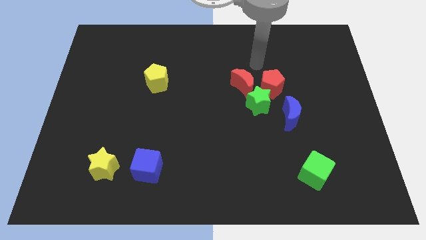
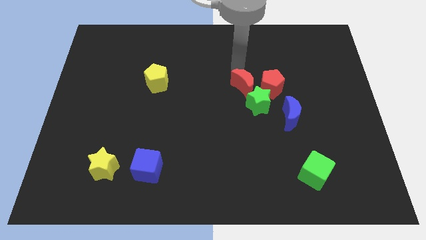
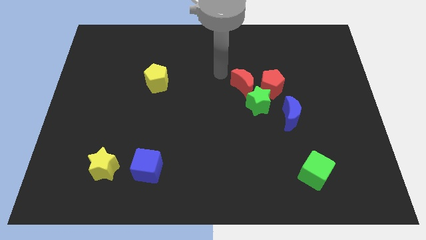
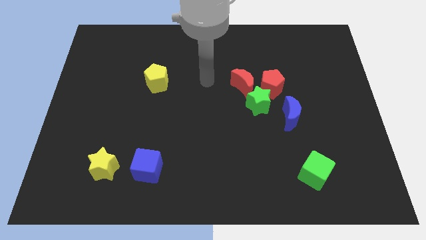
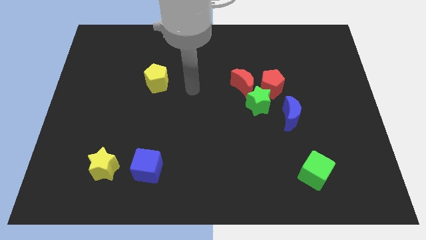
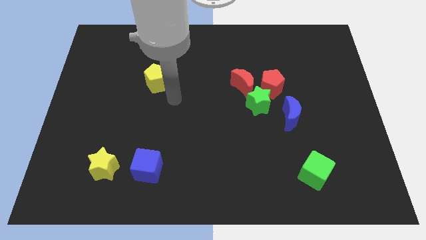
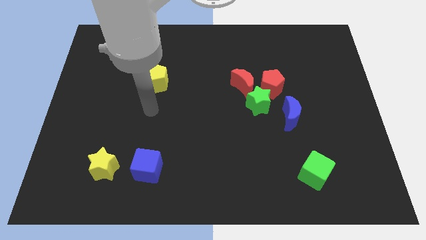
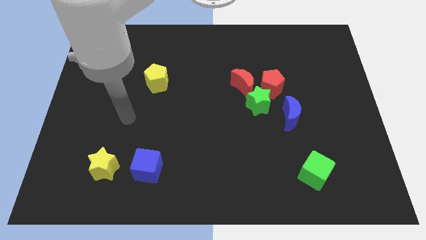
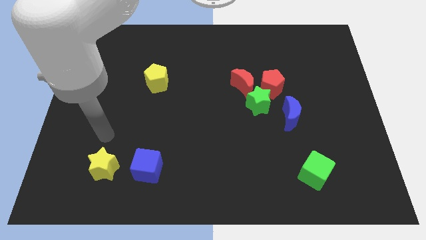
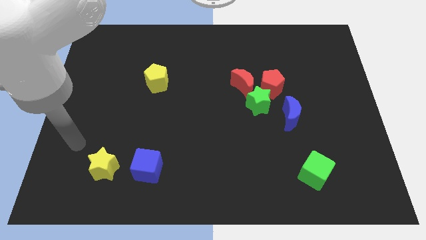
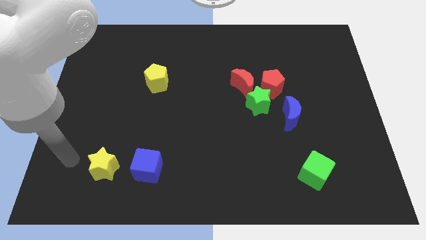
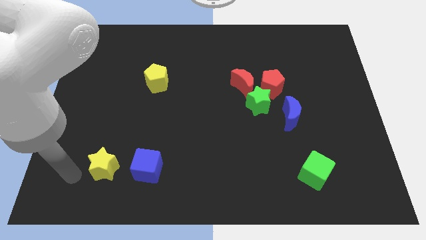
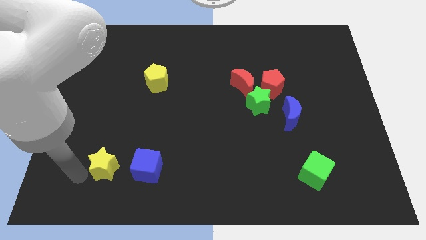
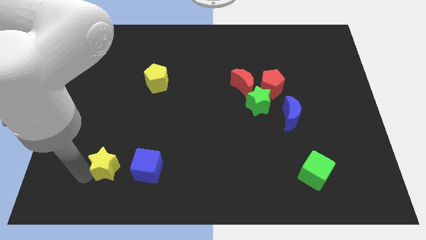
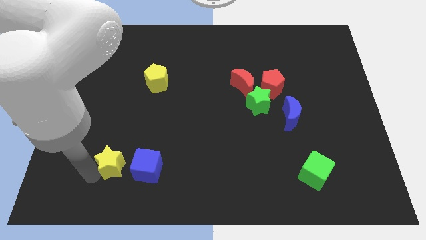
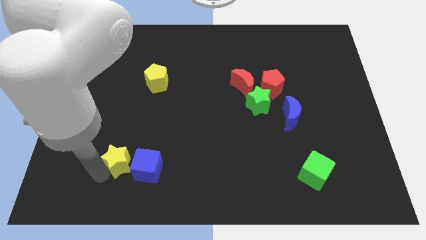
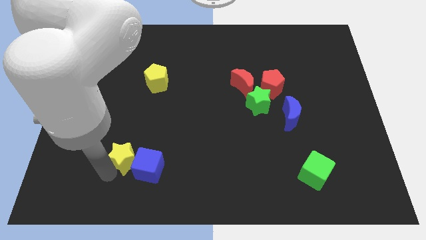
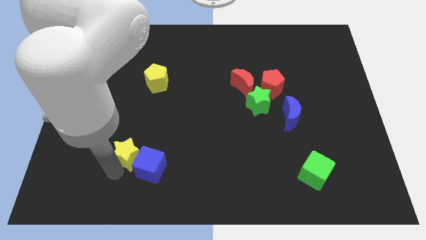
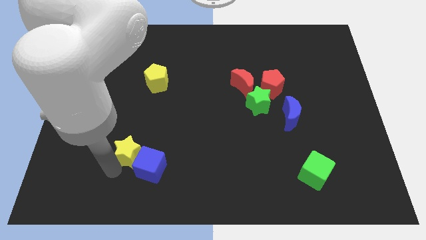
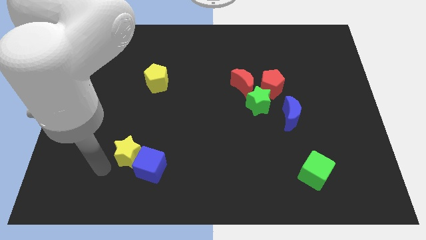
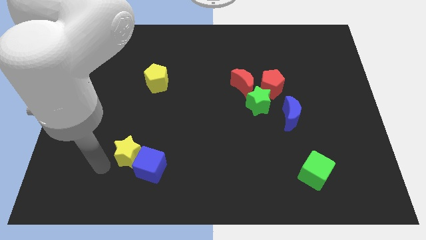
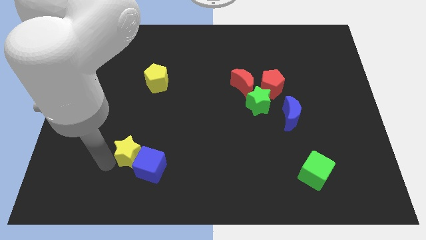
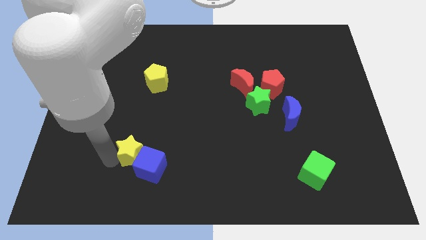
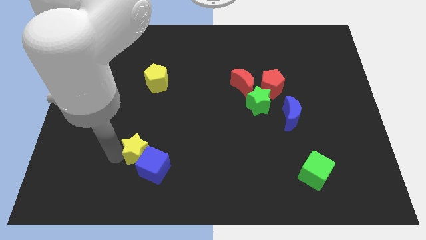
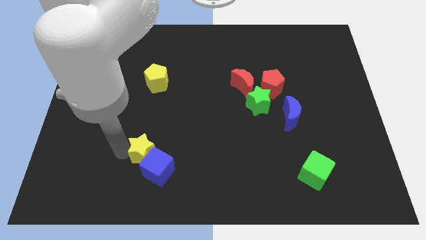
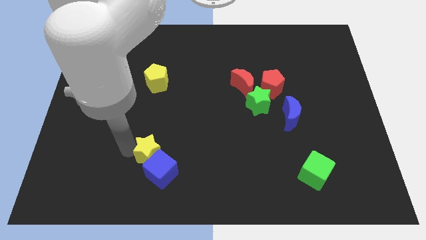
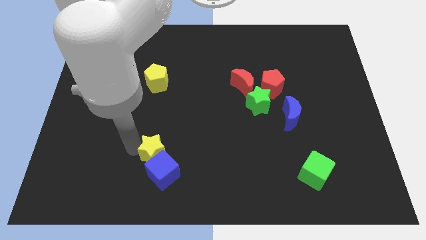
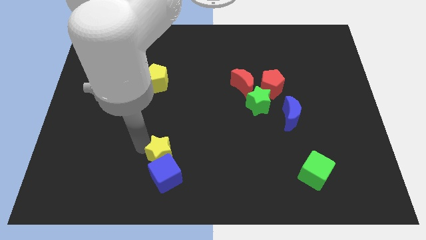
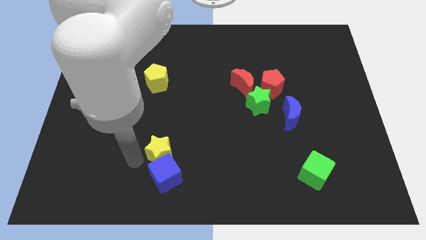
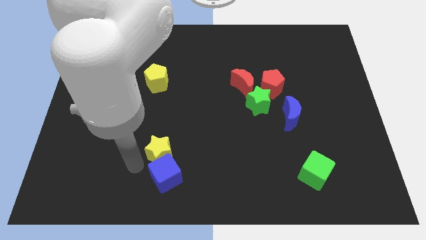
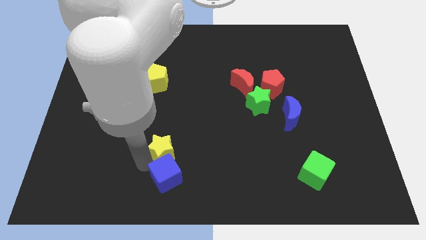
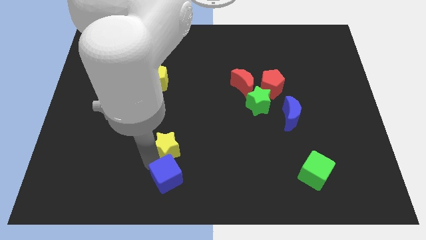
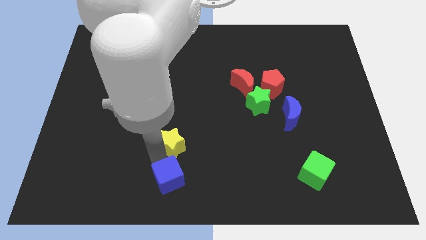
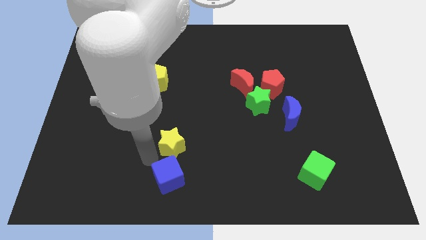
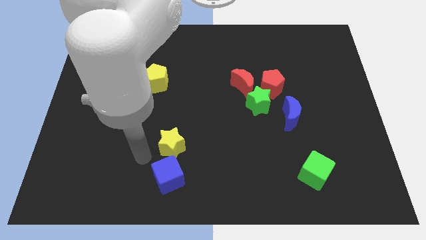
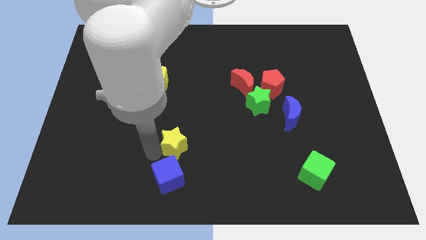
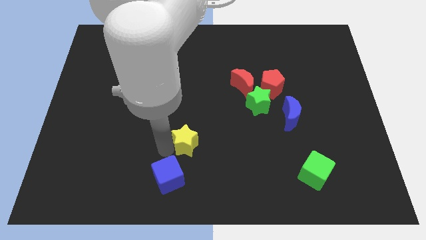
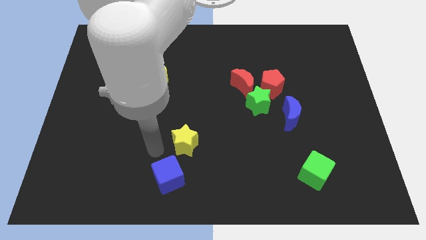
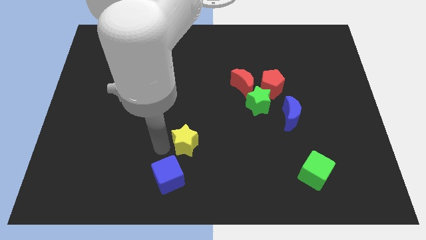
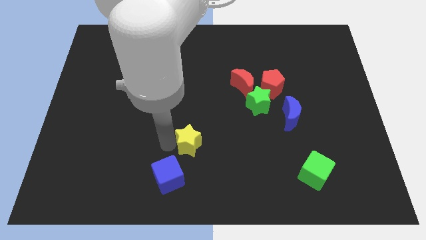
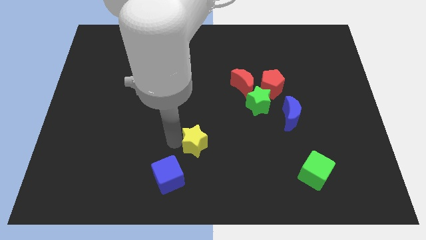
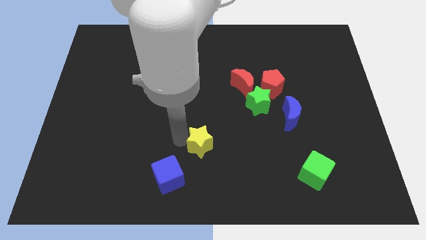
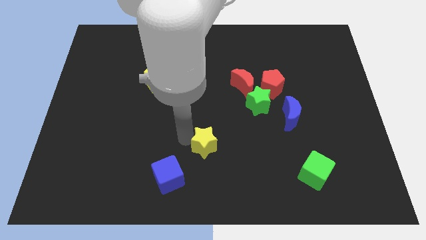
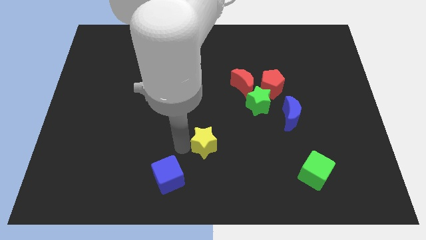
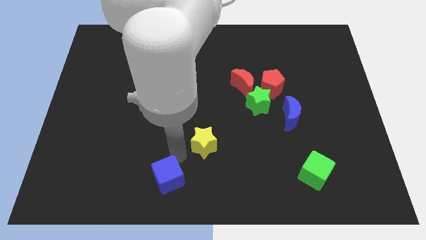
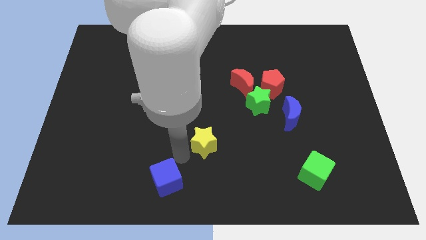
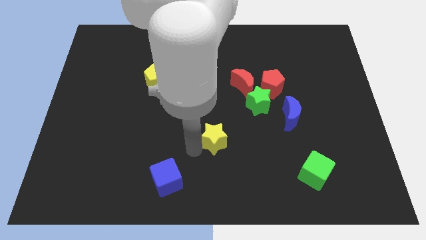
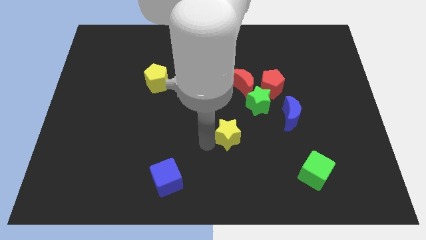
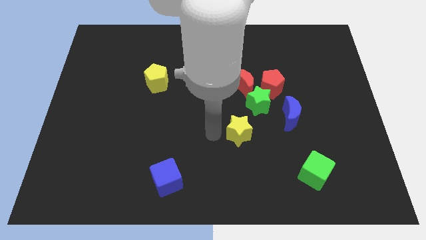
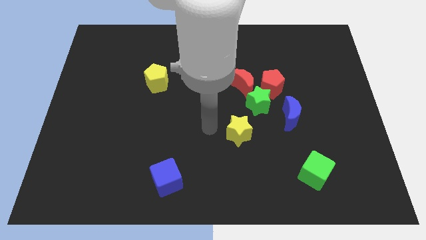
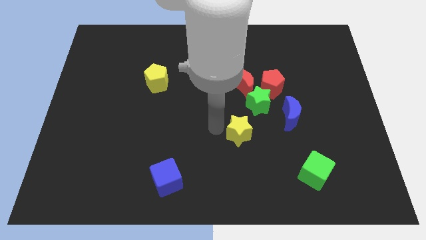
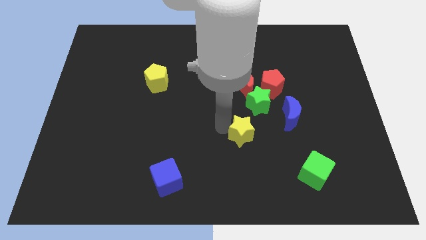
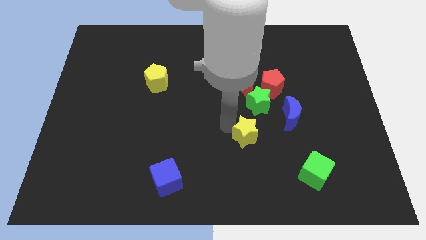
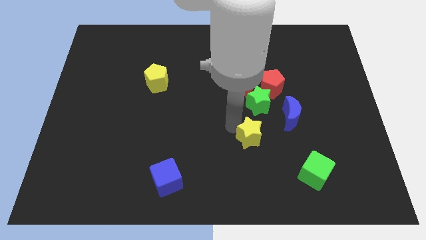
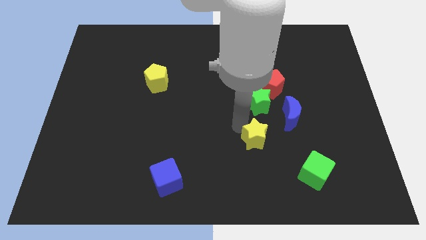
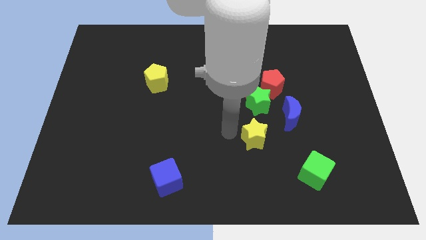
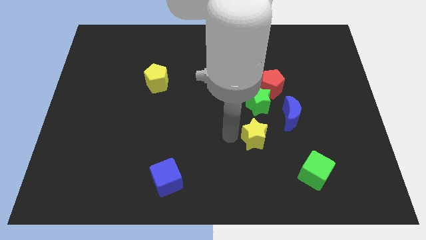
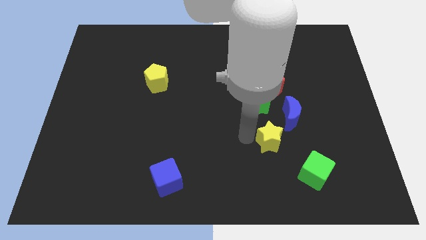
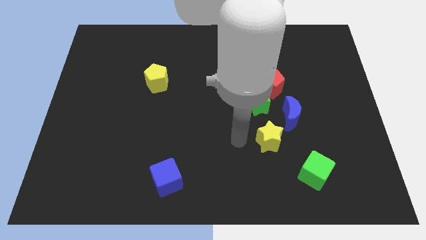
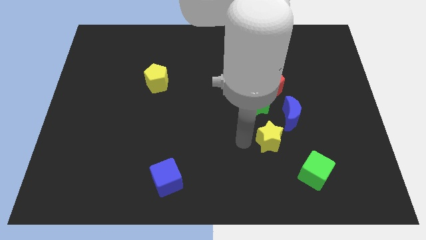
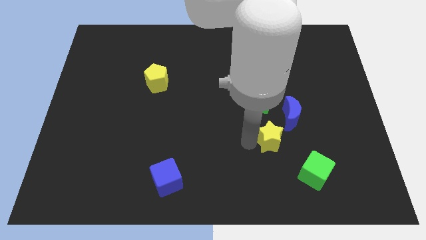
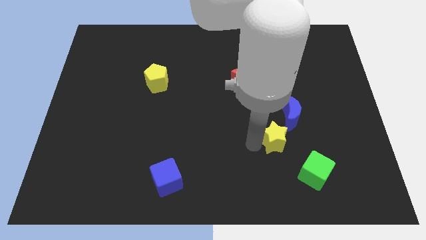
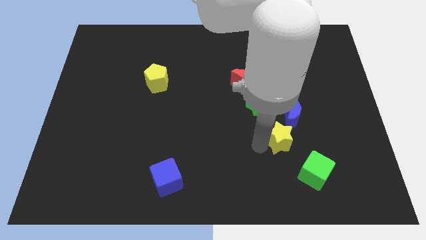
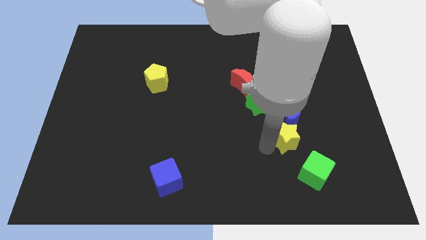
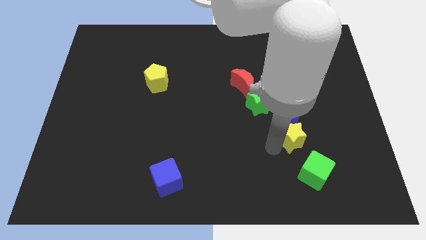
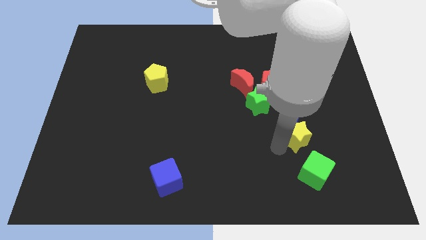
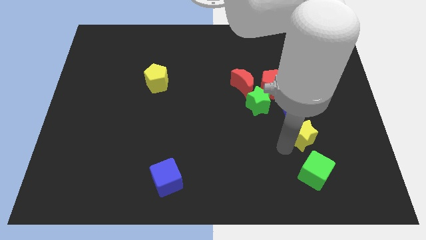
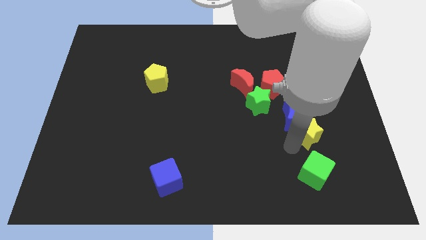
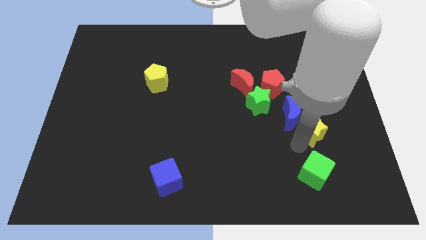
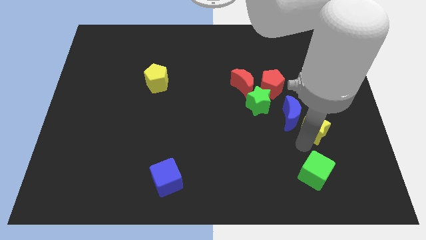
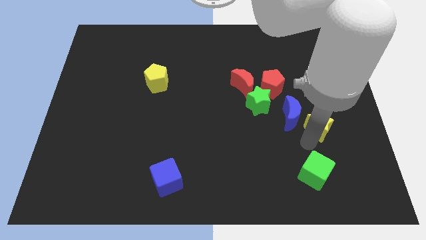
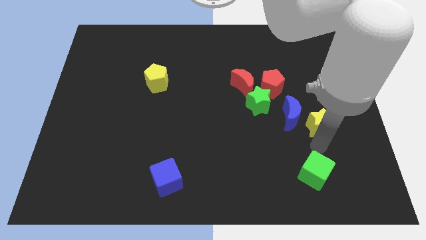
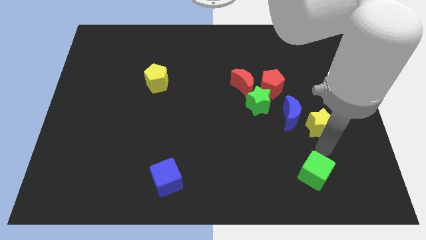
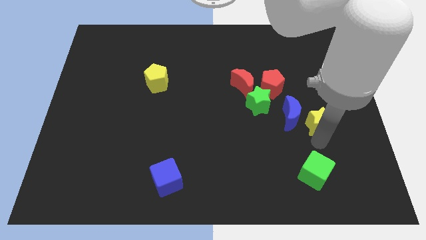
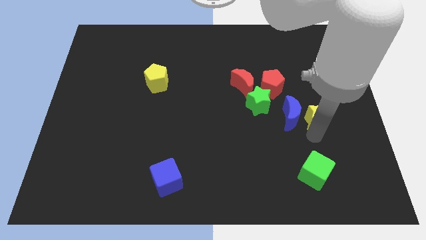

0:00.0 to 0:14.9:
put the yellow star diagonally up and to the right of the blue moon
